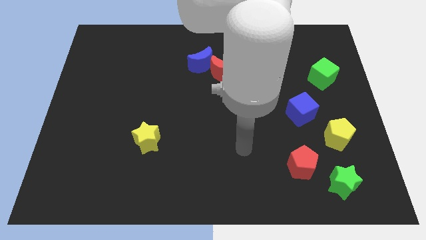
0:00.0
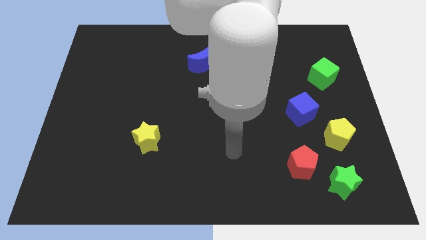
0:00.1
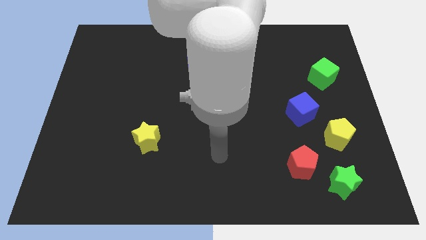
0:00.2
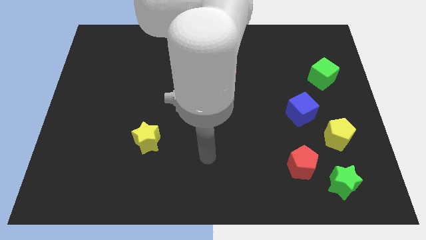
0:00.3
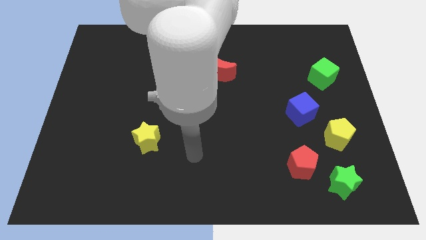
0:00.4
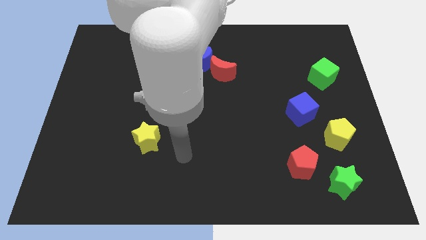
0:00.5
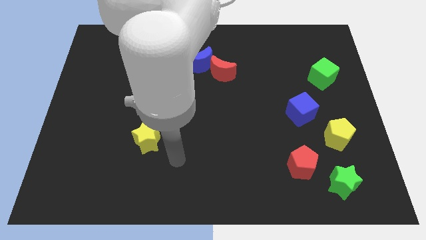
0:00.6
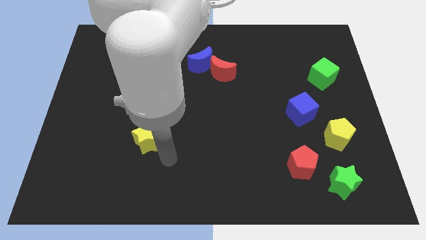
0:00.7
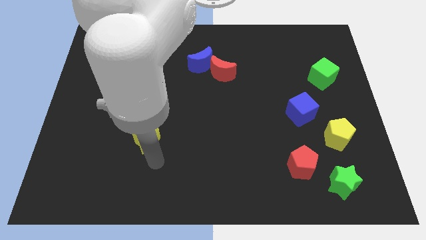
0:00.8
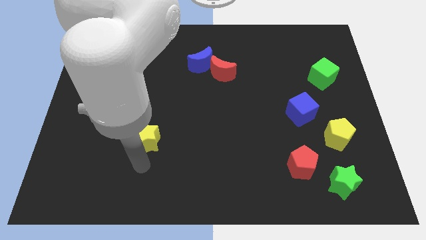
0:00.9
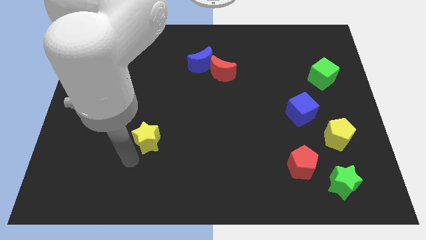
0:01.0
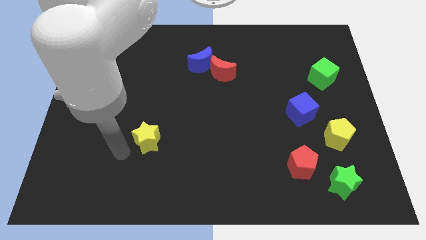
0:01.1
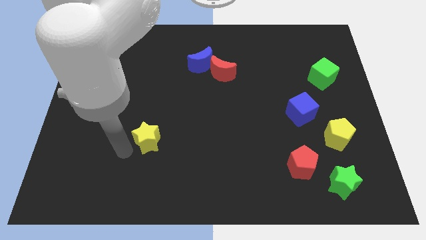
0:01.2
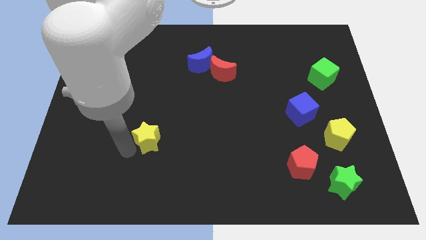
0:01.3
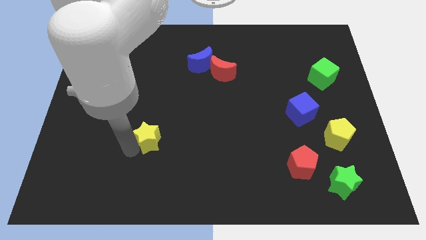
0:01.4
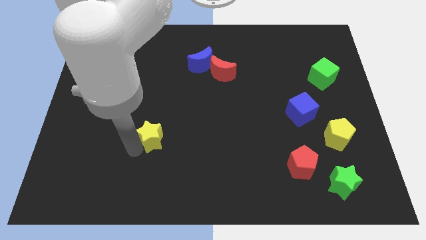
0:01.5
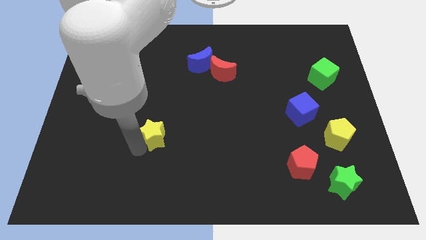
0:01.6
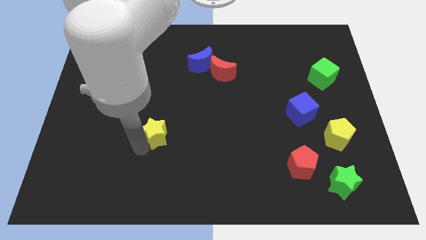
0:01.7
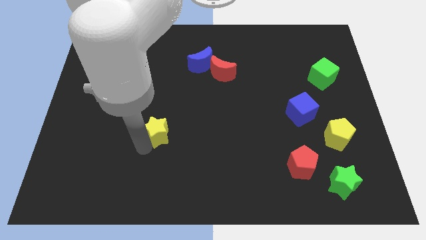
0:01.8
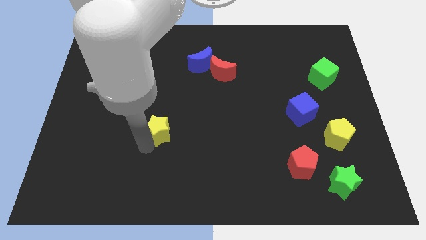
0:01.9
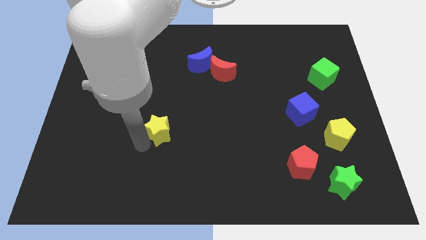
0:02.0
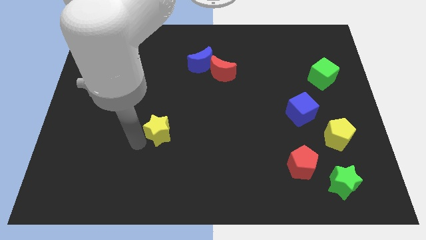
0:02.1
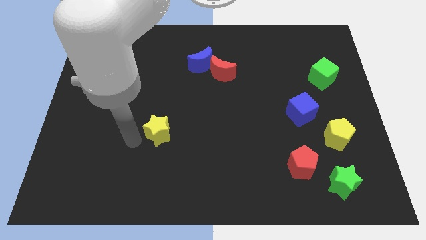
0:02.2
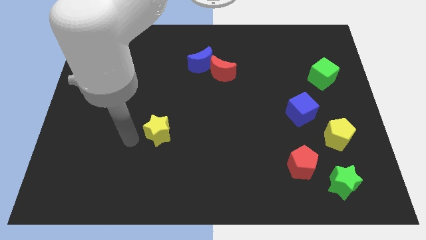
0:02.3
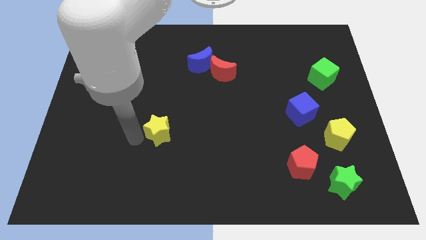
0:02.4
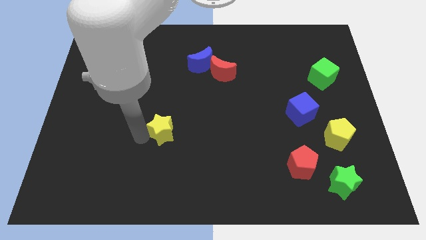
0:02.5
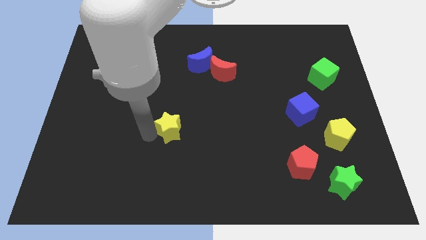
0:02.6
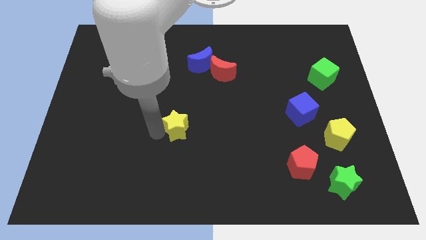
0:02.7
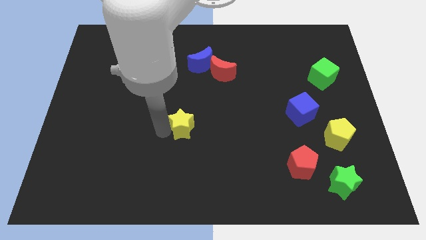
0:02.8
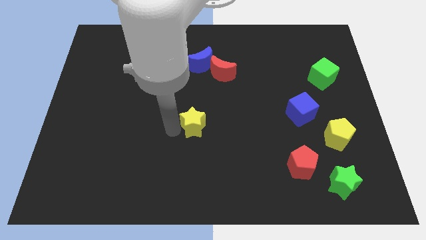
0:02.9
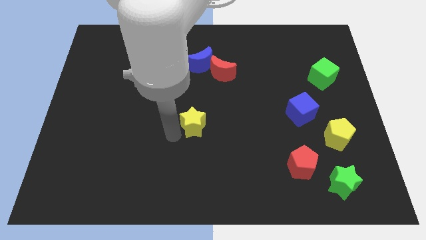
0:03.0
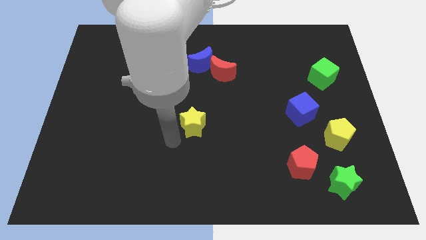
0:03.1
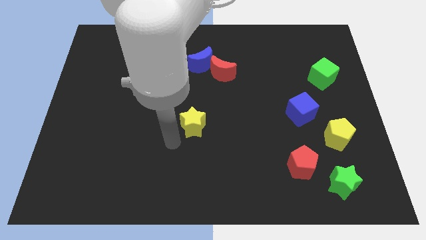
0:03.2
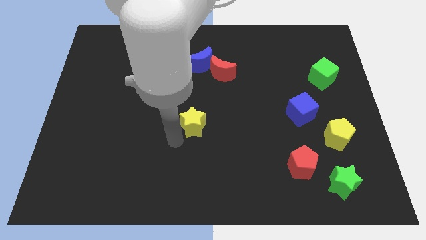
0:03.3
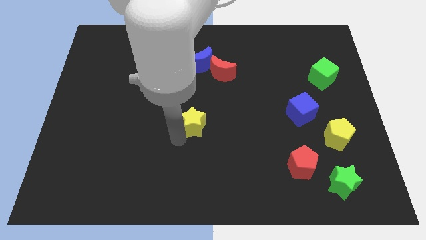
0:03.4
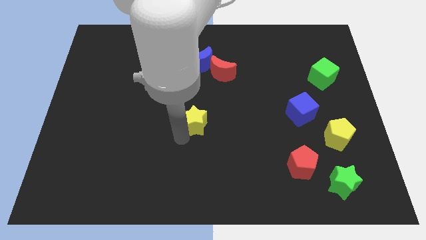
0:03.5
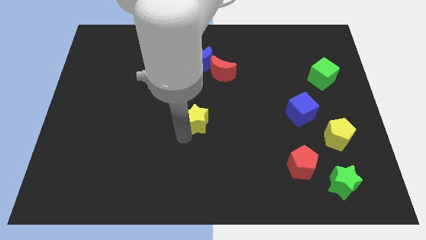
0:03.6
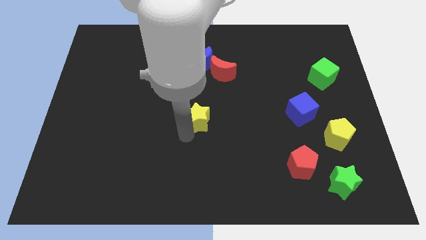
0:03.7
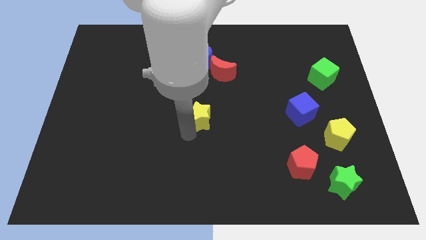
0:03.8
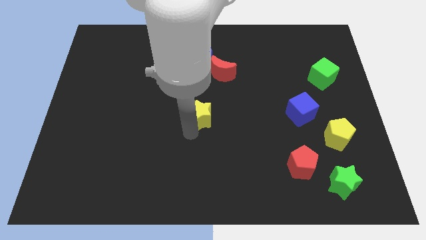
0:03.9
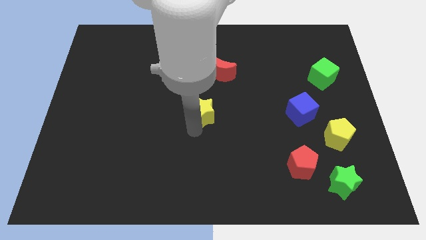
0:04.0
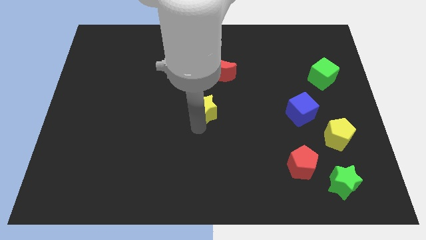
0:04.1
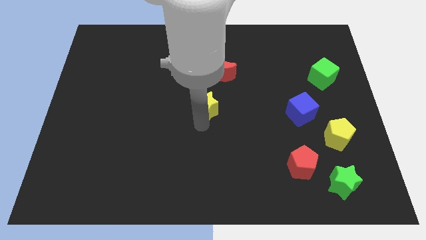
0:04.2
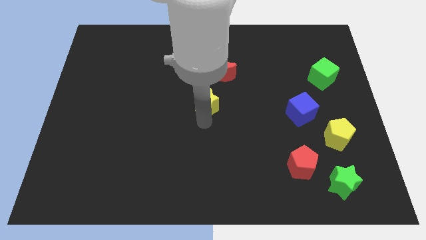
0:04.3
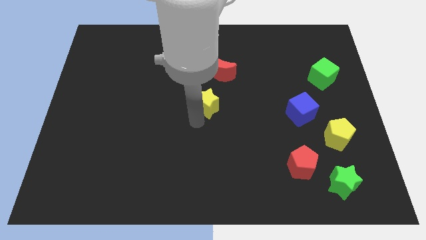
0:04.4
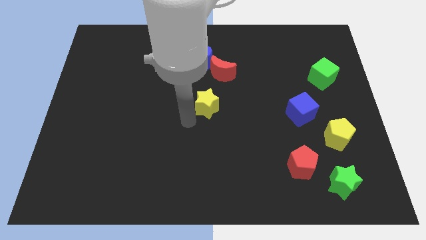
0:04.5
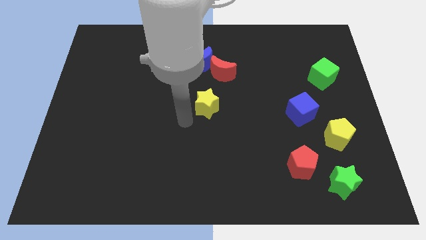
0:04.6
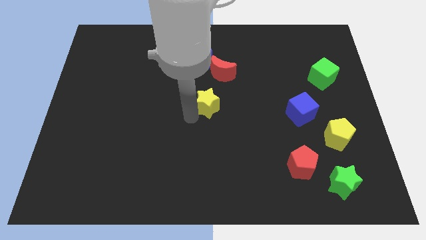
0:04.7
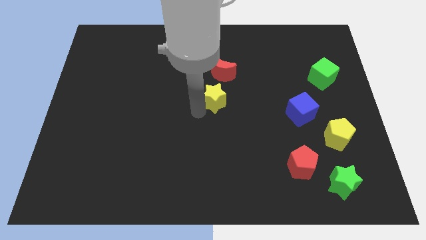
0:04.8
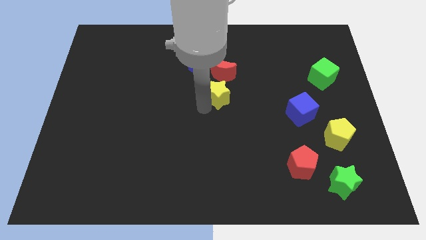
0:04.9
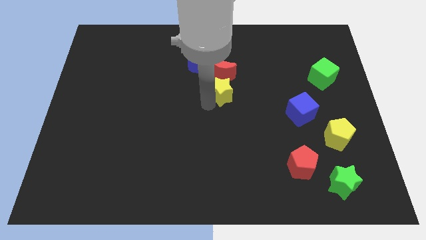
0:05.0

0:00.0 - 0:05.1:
move the yellow star up and right diagonally

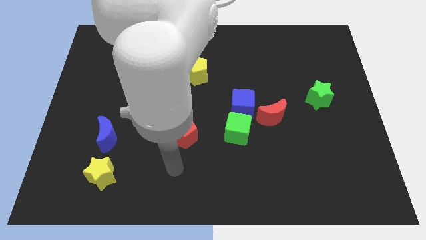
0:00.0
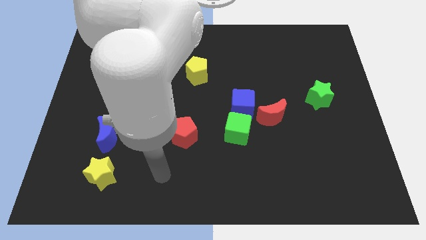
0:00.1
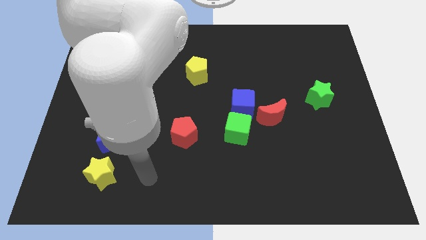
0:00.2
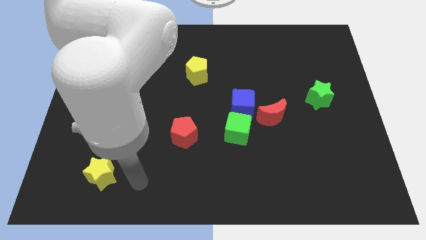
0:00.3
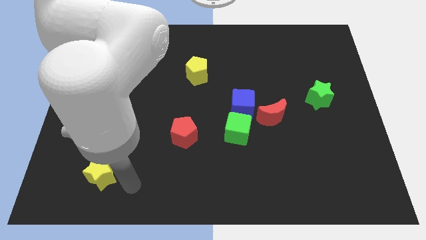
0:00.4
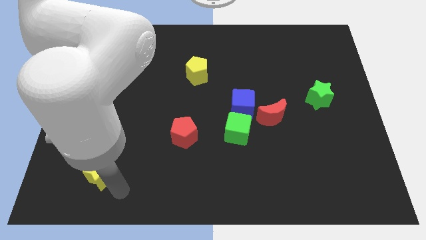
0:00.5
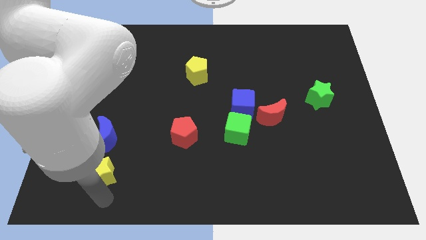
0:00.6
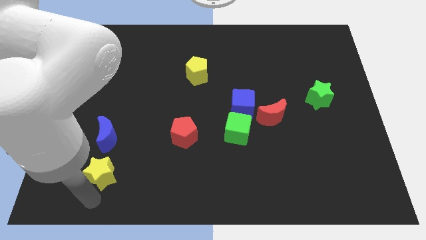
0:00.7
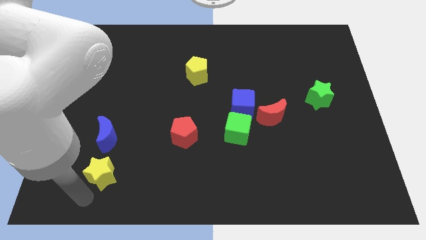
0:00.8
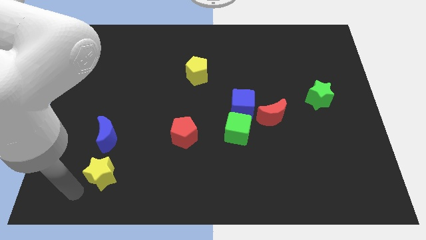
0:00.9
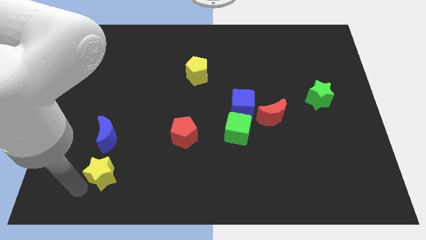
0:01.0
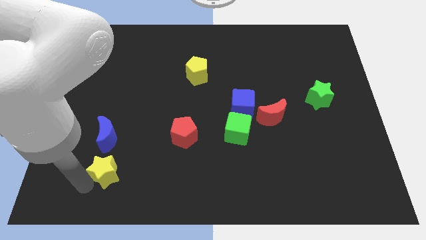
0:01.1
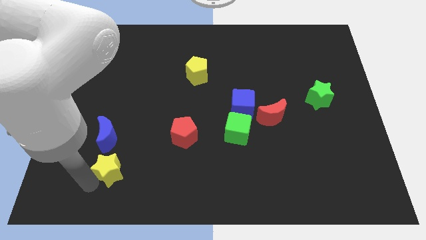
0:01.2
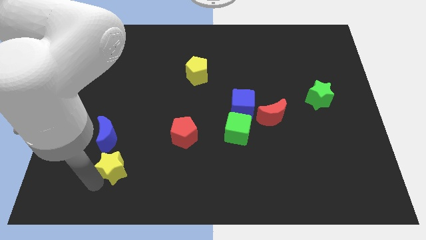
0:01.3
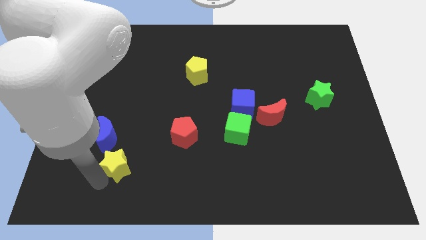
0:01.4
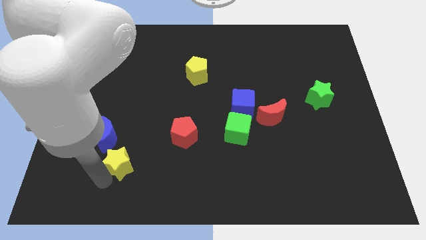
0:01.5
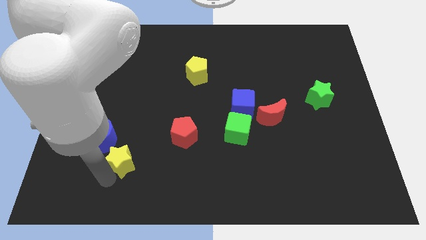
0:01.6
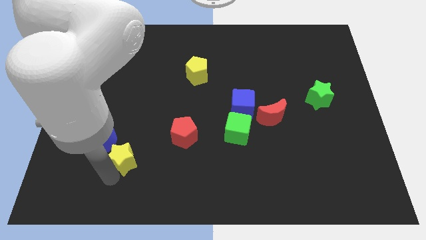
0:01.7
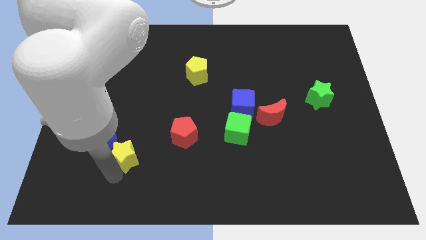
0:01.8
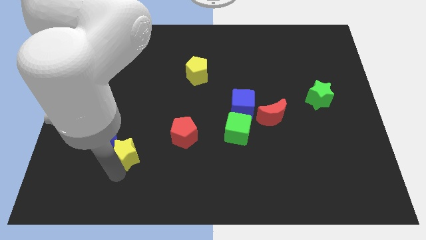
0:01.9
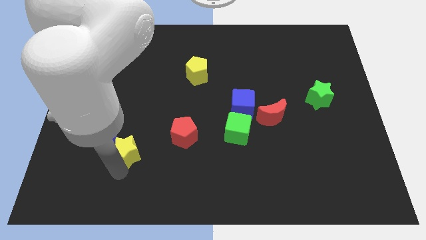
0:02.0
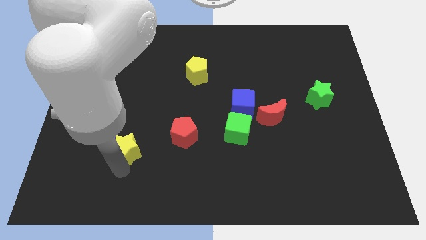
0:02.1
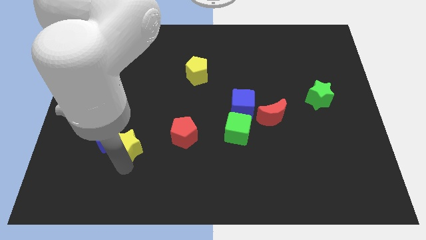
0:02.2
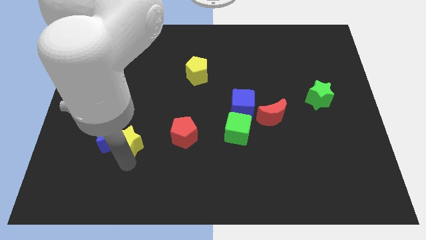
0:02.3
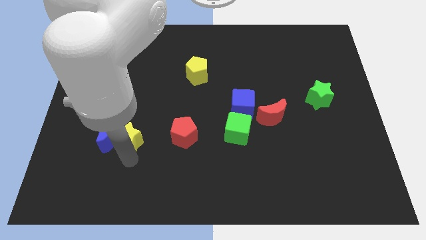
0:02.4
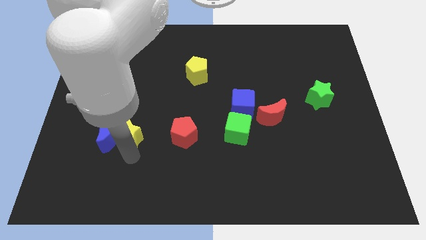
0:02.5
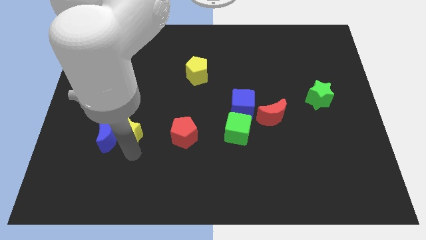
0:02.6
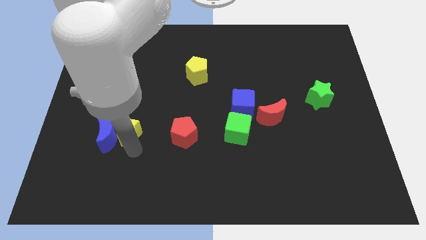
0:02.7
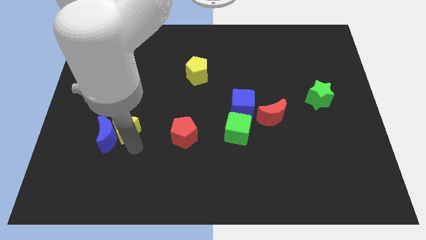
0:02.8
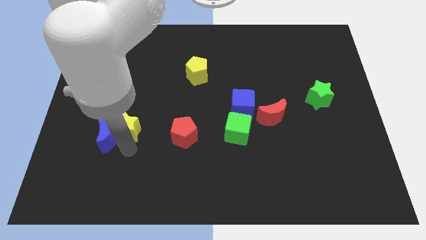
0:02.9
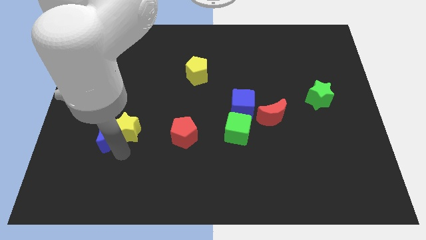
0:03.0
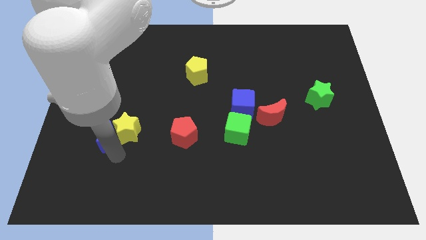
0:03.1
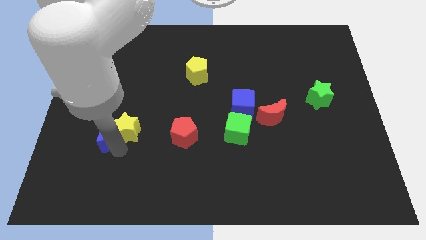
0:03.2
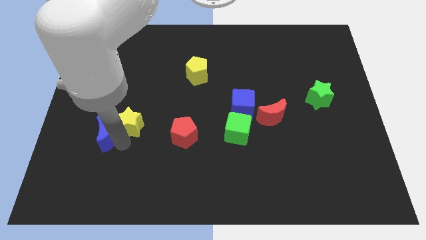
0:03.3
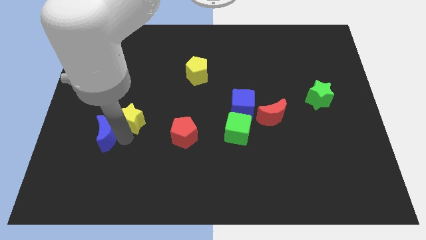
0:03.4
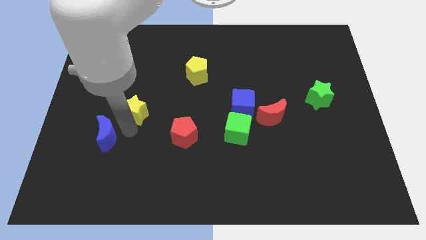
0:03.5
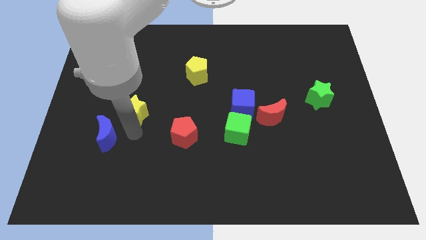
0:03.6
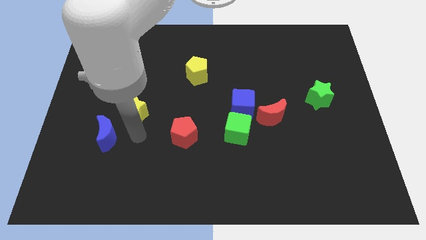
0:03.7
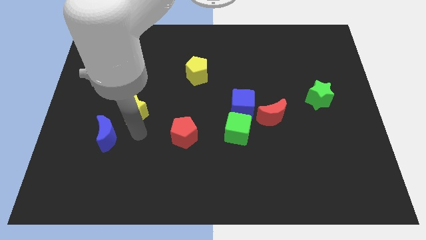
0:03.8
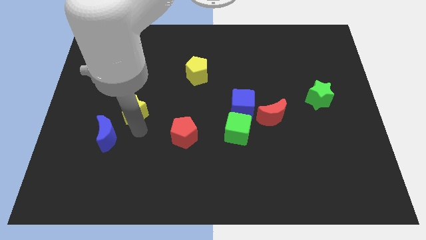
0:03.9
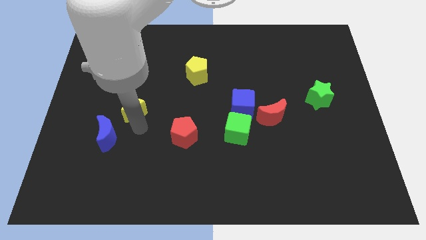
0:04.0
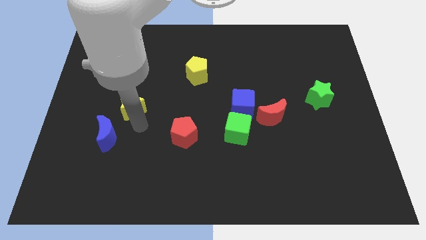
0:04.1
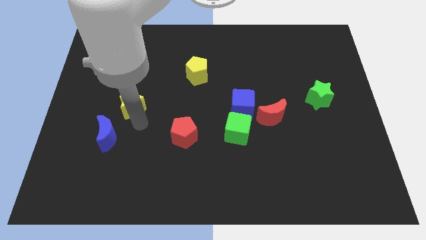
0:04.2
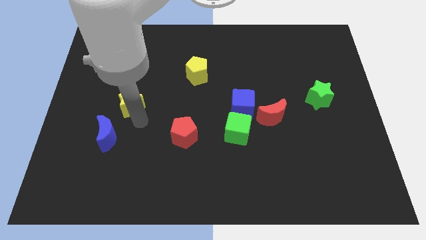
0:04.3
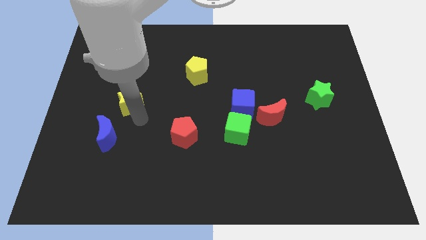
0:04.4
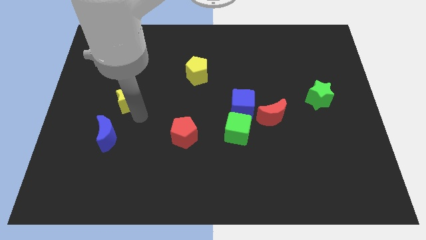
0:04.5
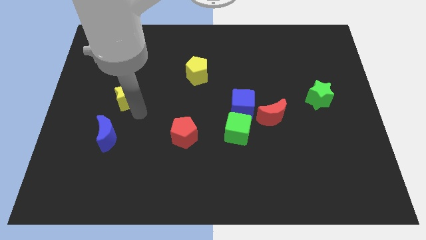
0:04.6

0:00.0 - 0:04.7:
slide the yellow star up
